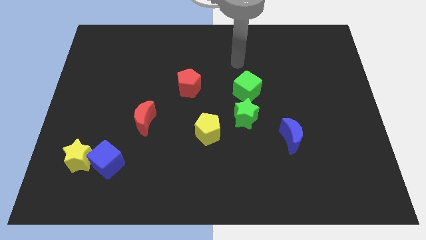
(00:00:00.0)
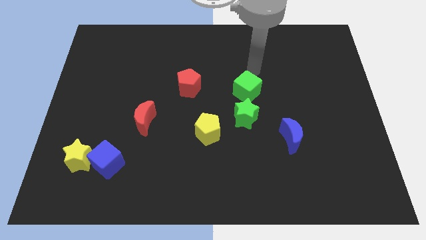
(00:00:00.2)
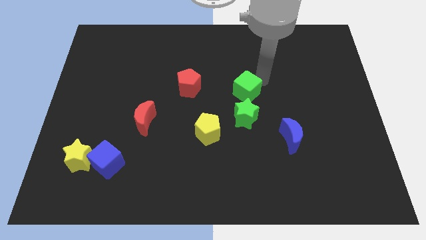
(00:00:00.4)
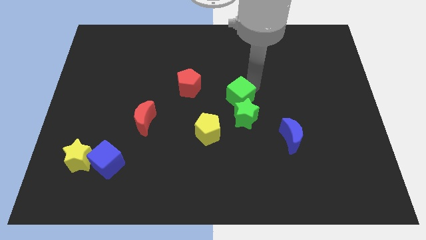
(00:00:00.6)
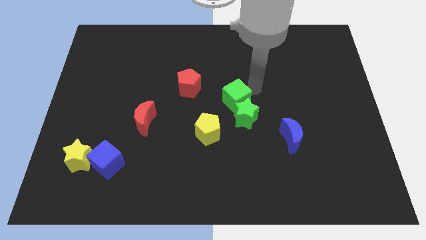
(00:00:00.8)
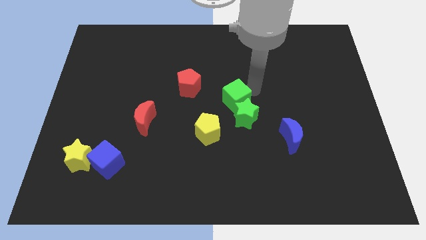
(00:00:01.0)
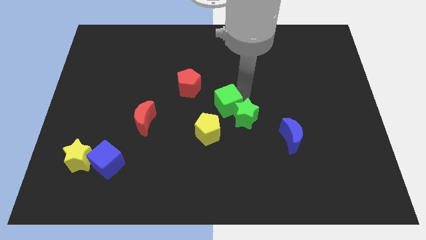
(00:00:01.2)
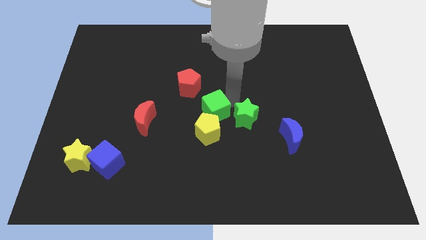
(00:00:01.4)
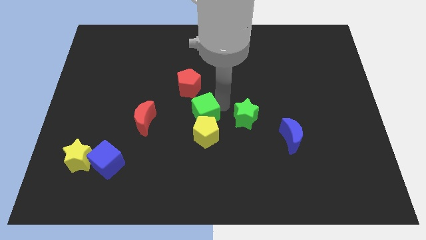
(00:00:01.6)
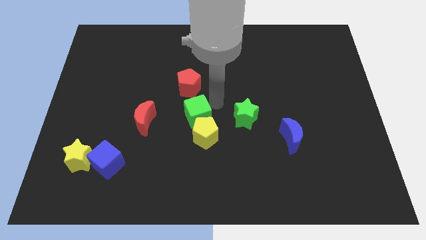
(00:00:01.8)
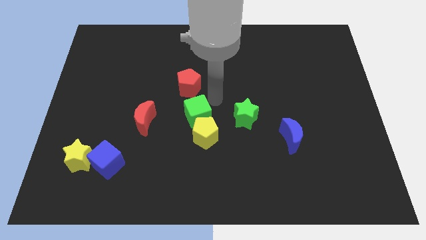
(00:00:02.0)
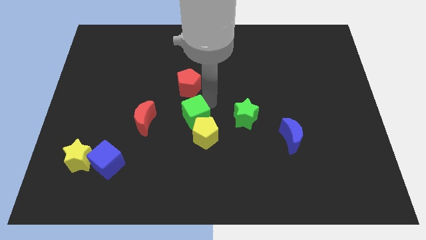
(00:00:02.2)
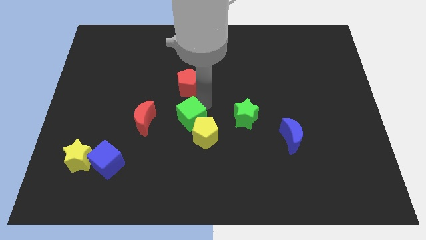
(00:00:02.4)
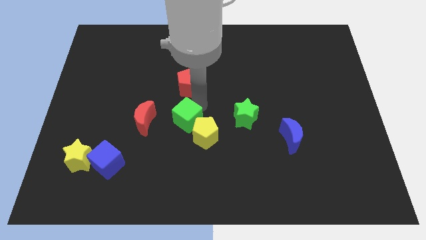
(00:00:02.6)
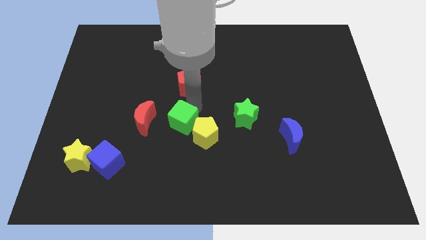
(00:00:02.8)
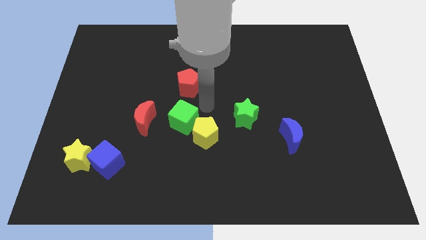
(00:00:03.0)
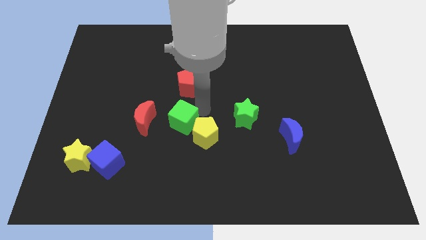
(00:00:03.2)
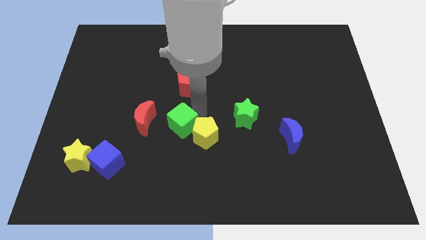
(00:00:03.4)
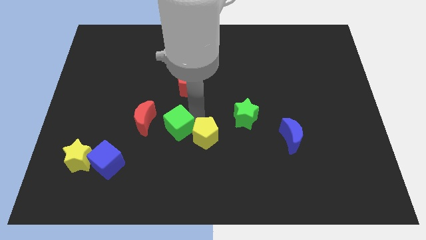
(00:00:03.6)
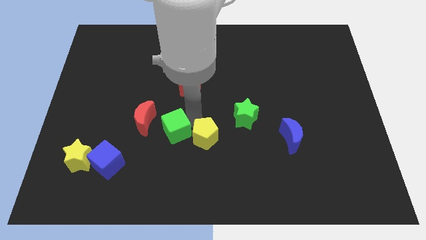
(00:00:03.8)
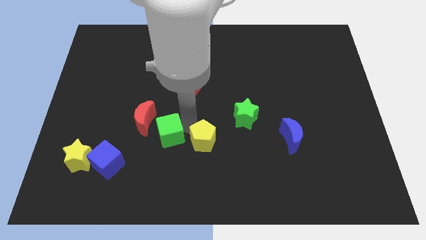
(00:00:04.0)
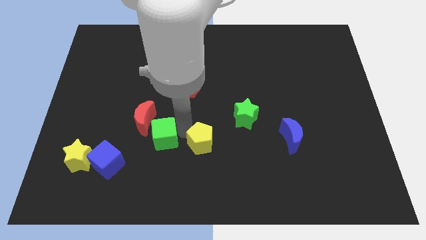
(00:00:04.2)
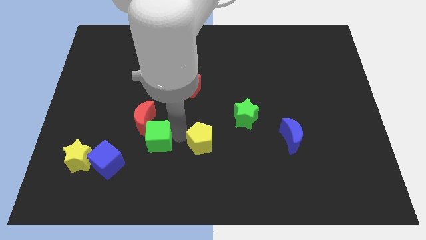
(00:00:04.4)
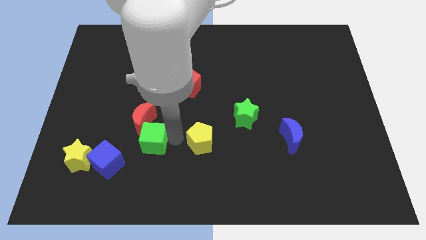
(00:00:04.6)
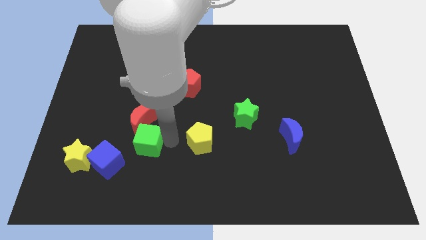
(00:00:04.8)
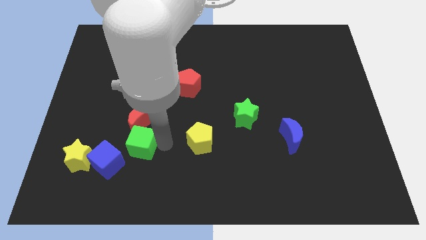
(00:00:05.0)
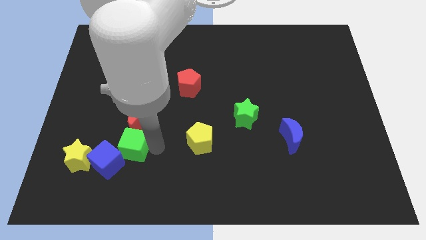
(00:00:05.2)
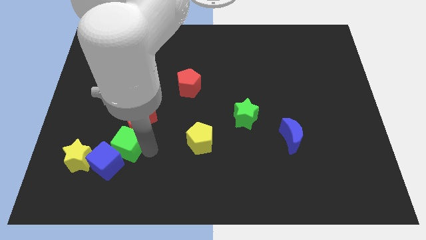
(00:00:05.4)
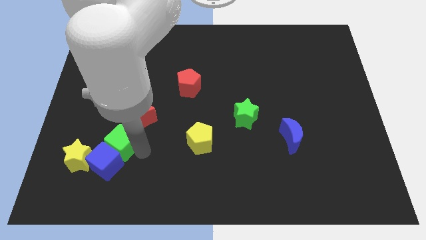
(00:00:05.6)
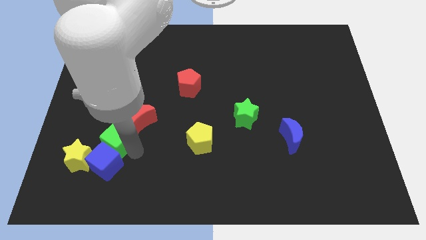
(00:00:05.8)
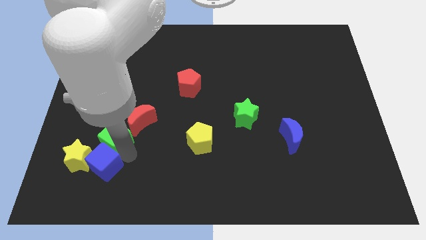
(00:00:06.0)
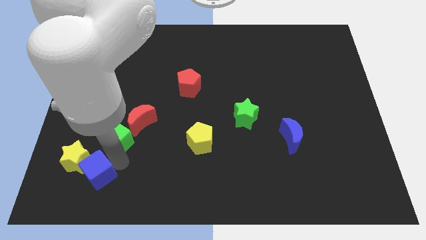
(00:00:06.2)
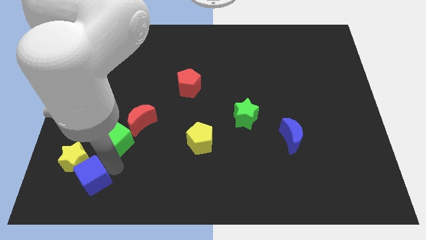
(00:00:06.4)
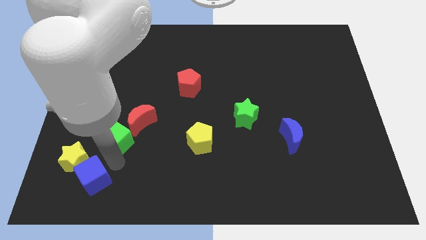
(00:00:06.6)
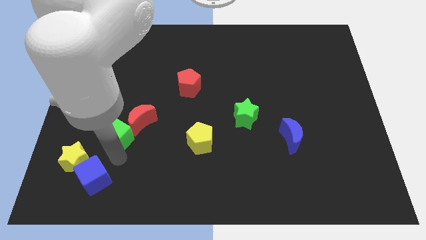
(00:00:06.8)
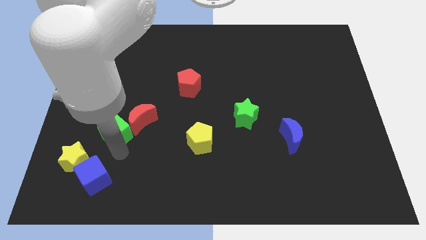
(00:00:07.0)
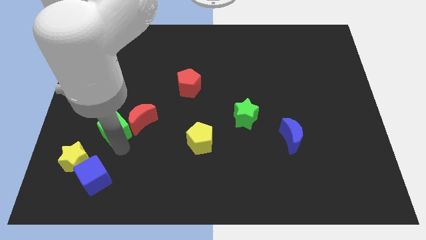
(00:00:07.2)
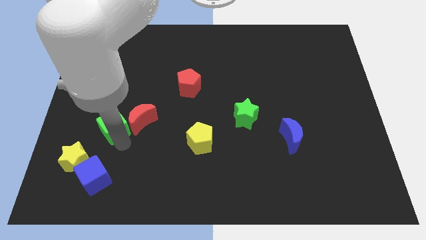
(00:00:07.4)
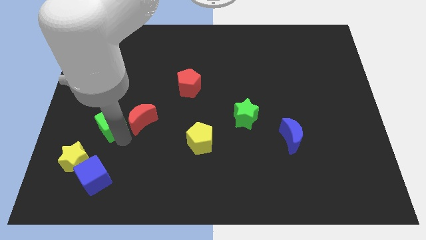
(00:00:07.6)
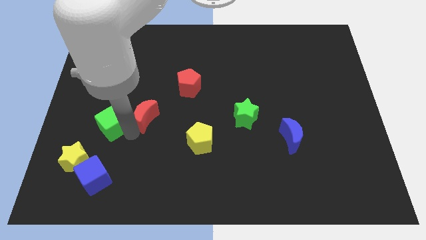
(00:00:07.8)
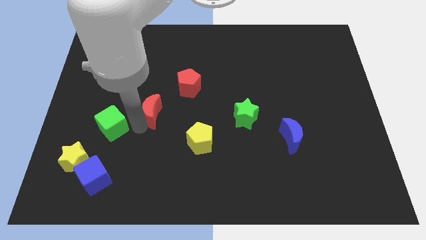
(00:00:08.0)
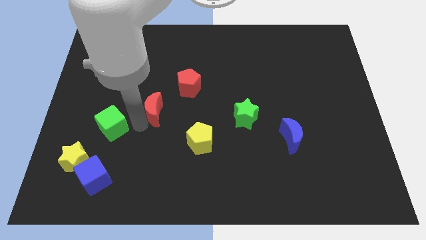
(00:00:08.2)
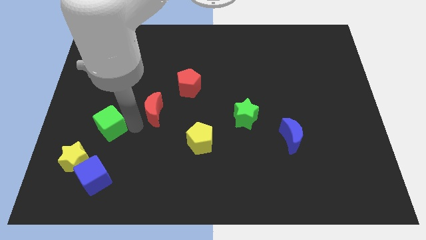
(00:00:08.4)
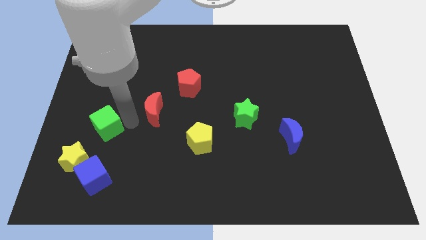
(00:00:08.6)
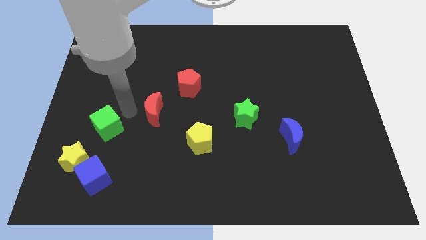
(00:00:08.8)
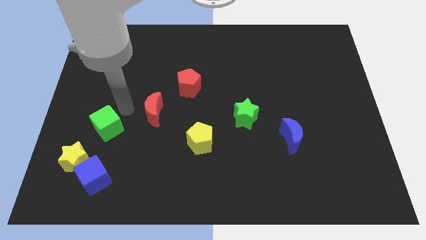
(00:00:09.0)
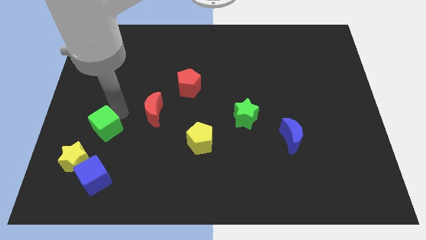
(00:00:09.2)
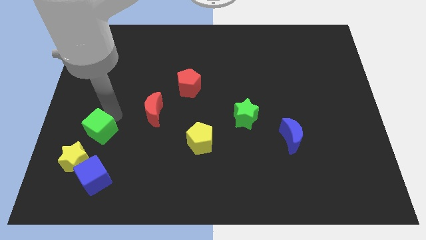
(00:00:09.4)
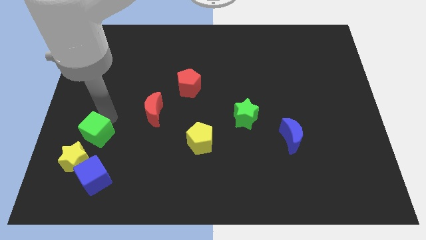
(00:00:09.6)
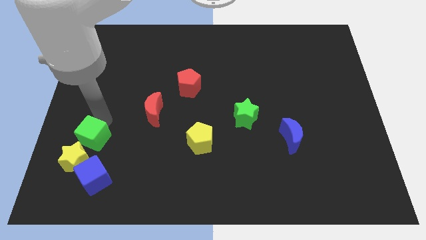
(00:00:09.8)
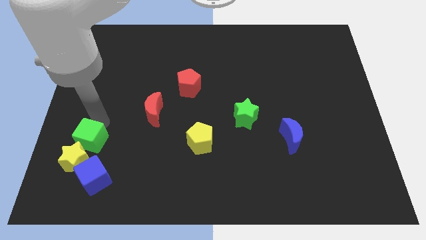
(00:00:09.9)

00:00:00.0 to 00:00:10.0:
move the green cube towards the yellow star
